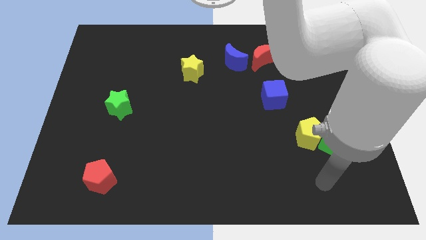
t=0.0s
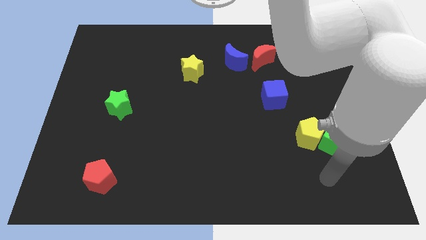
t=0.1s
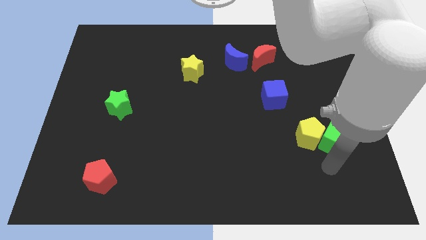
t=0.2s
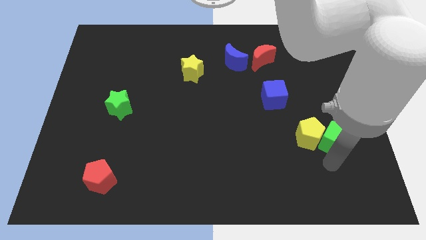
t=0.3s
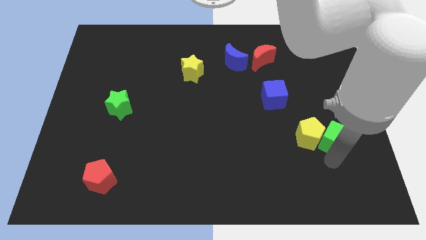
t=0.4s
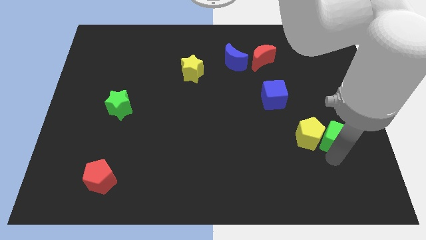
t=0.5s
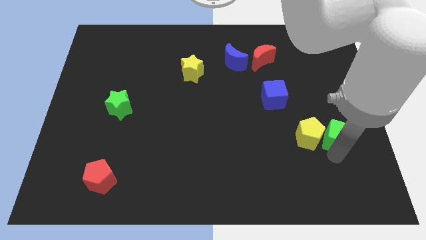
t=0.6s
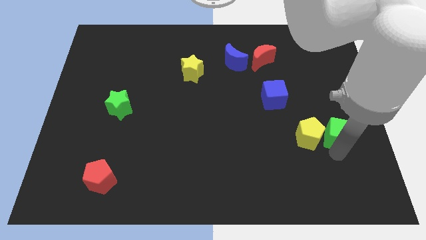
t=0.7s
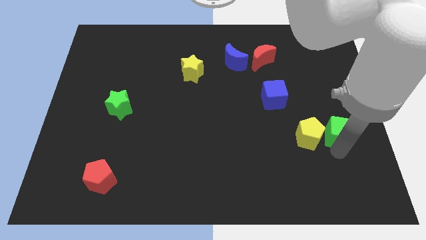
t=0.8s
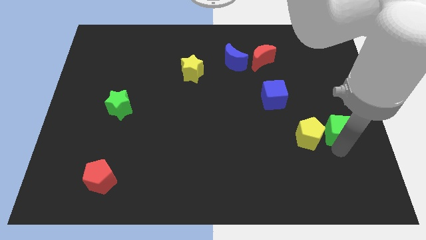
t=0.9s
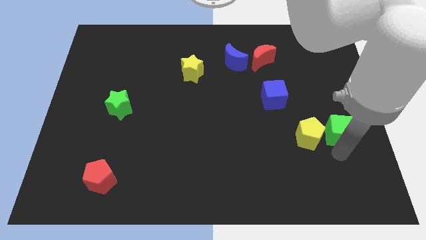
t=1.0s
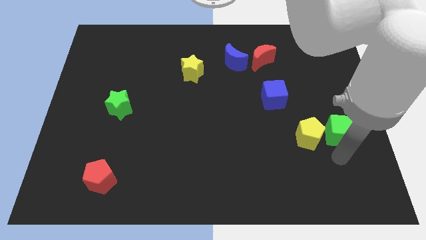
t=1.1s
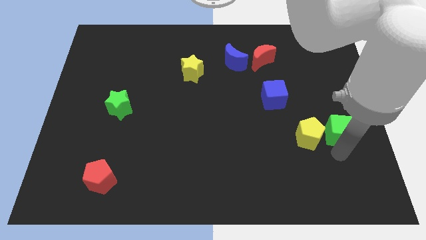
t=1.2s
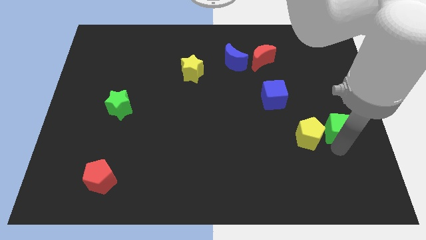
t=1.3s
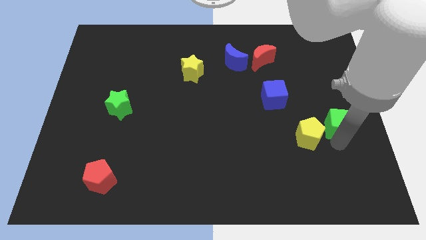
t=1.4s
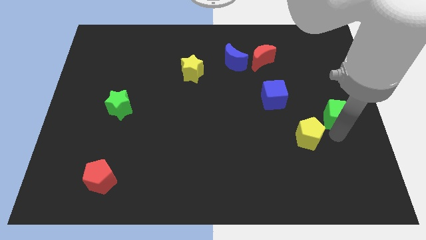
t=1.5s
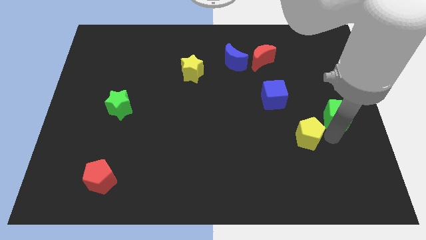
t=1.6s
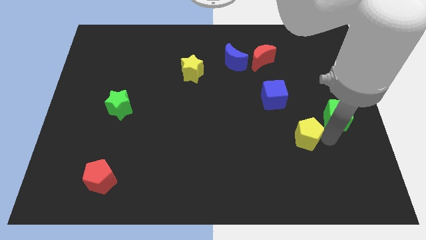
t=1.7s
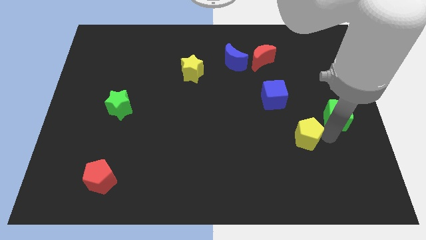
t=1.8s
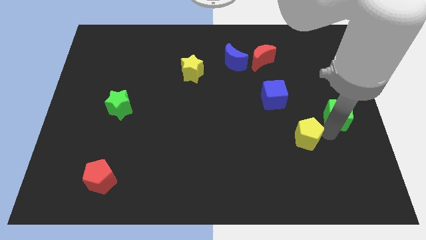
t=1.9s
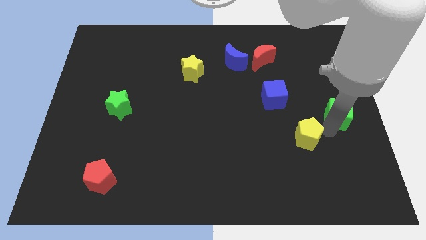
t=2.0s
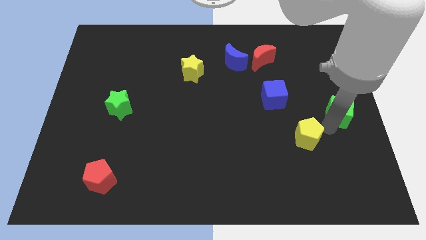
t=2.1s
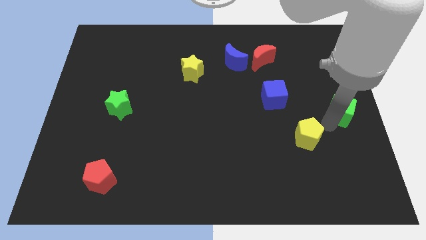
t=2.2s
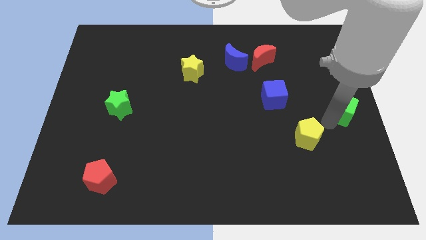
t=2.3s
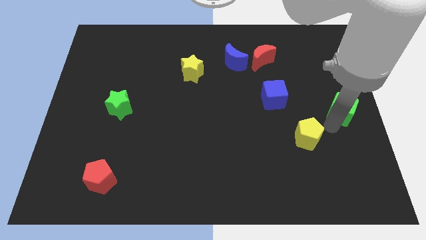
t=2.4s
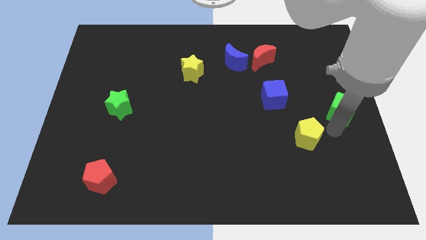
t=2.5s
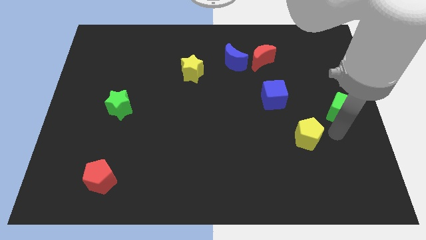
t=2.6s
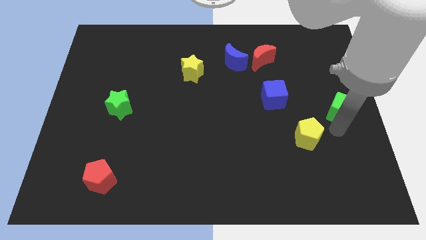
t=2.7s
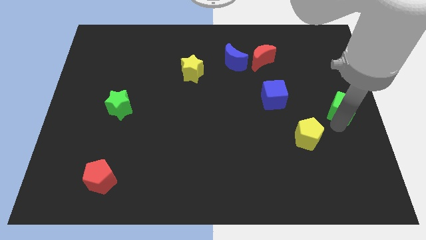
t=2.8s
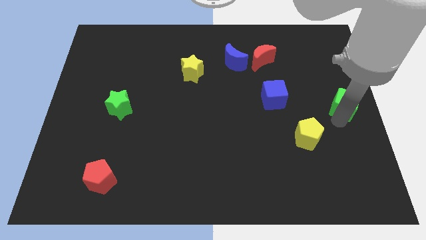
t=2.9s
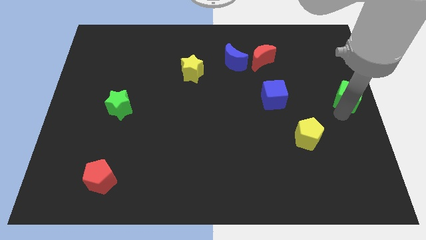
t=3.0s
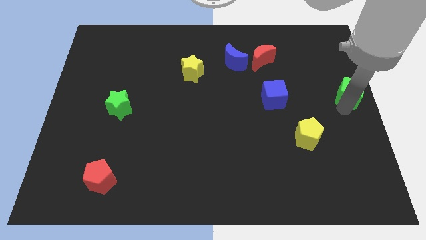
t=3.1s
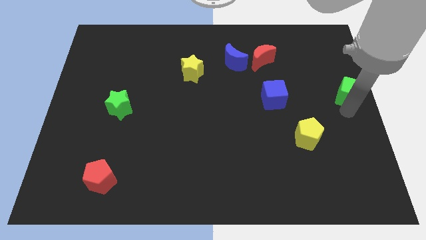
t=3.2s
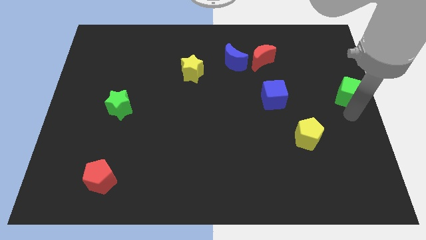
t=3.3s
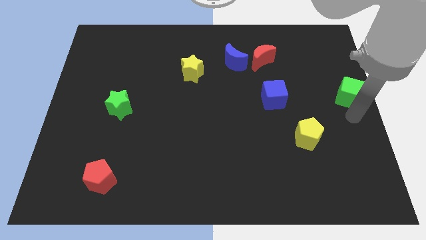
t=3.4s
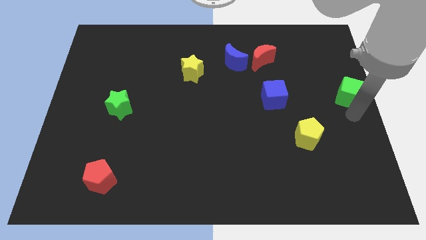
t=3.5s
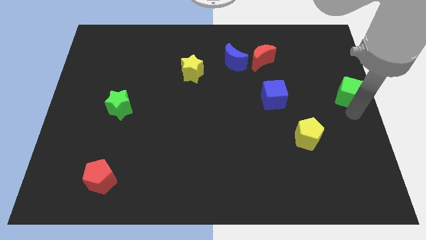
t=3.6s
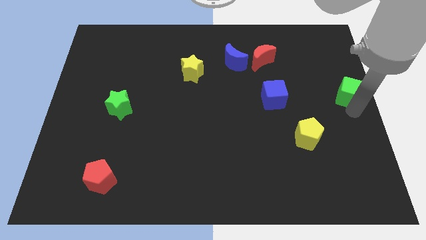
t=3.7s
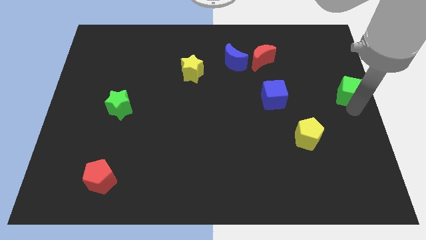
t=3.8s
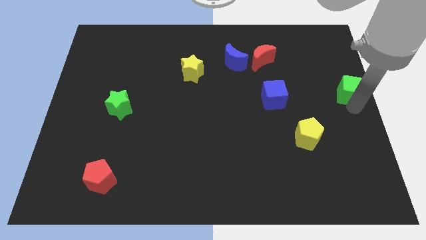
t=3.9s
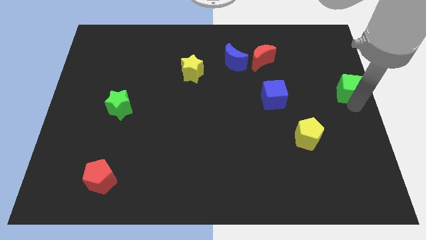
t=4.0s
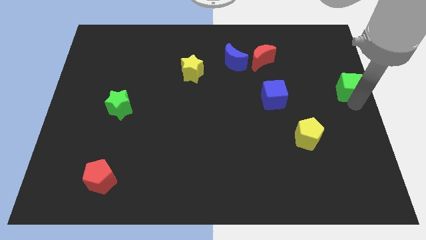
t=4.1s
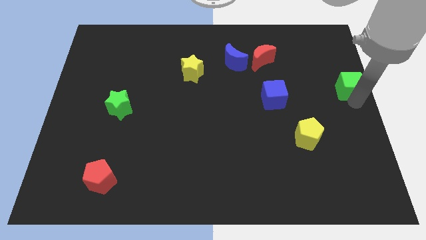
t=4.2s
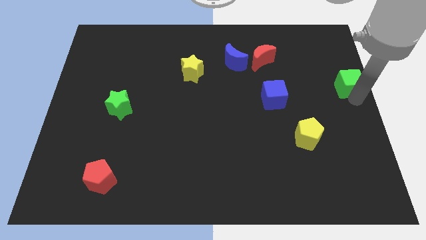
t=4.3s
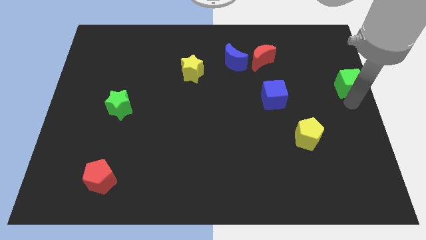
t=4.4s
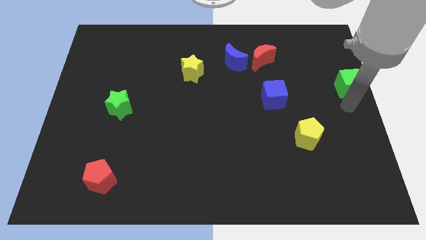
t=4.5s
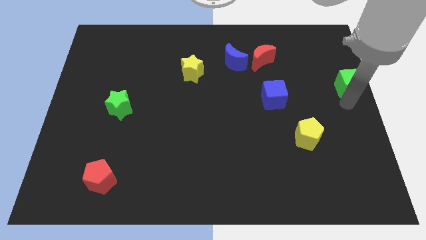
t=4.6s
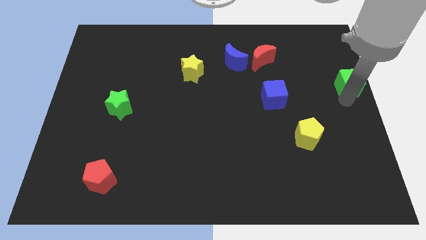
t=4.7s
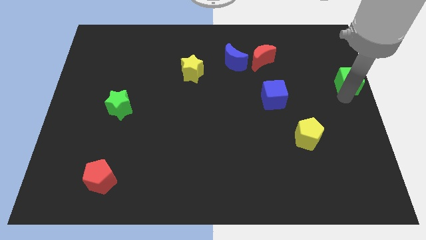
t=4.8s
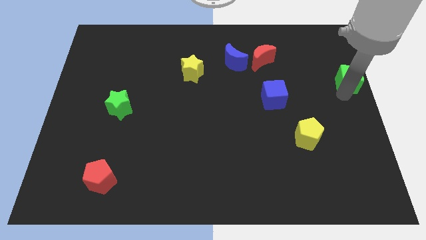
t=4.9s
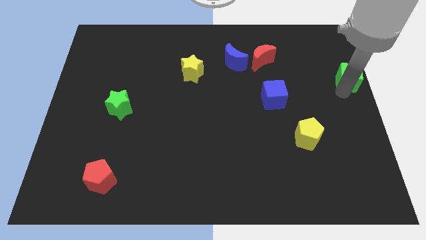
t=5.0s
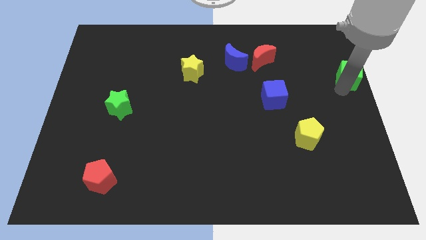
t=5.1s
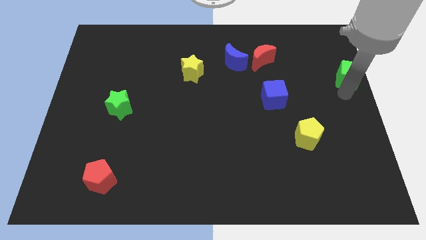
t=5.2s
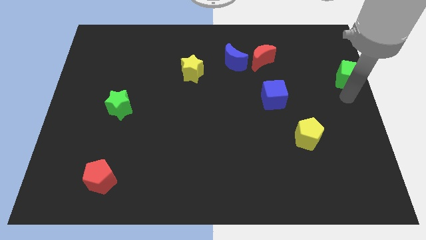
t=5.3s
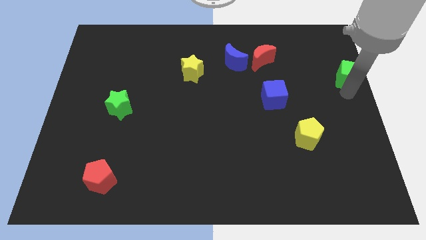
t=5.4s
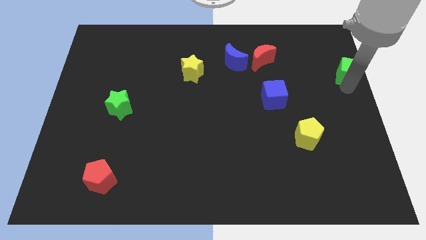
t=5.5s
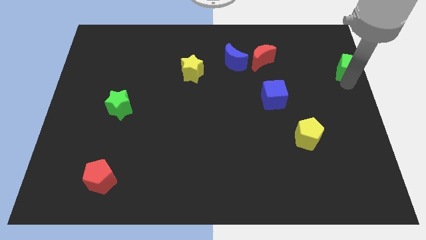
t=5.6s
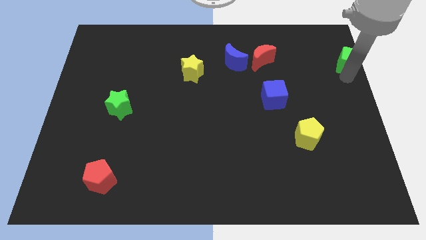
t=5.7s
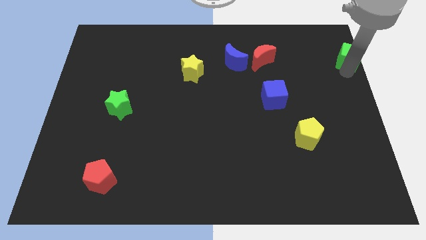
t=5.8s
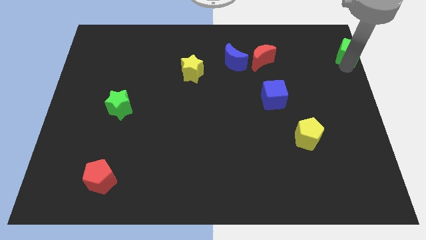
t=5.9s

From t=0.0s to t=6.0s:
slide the green cube to the top right of the board

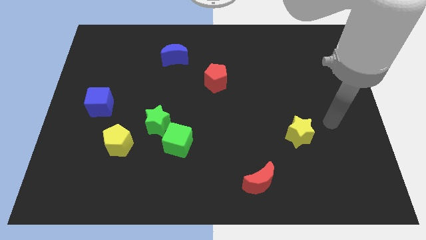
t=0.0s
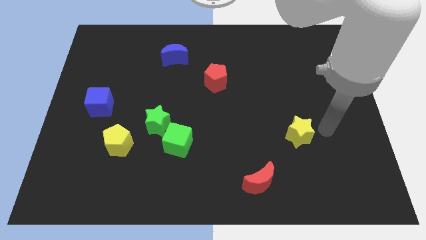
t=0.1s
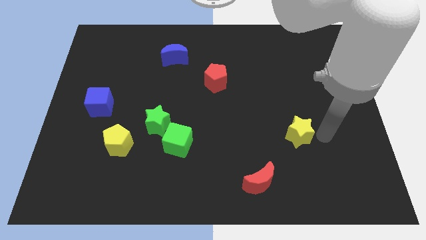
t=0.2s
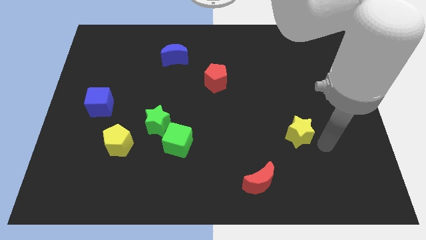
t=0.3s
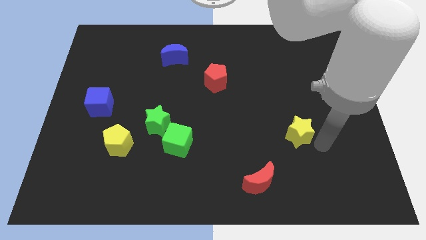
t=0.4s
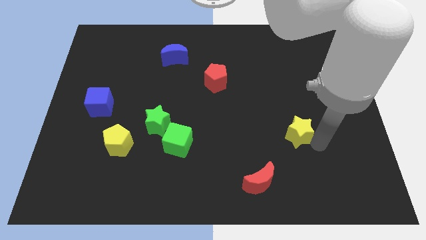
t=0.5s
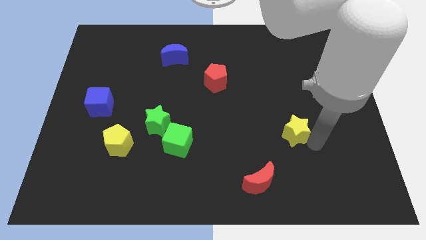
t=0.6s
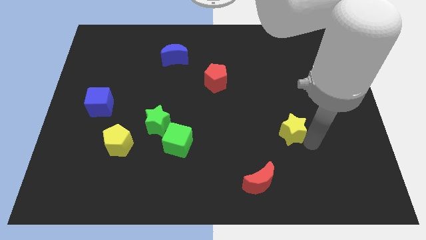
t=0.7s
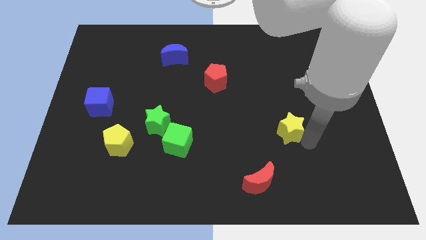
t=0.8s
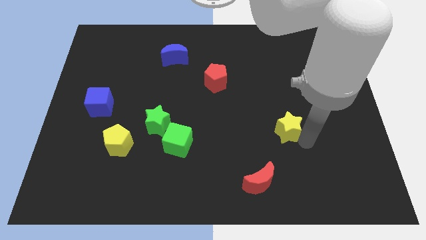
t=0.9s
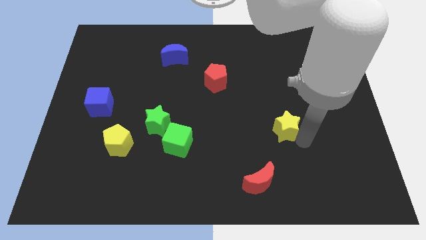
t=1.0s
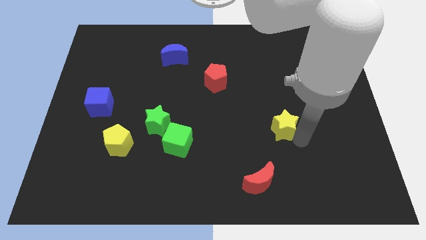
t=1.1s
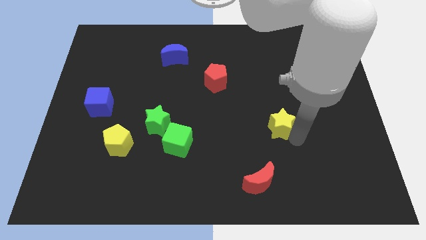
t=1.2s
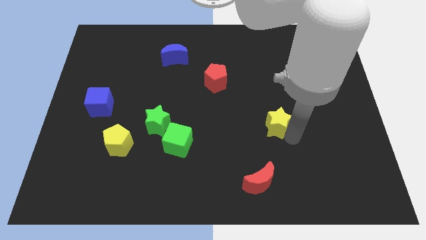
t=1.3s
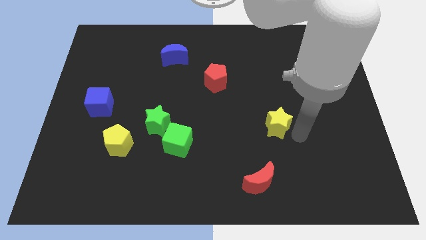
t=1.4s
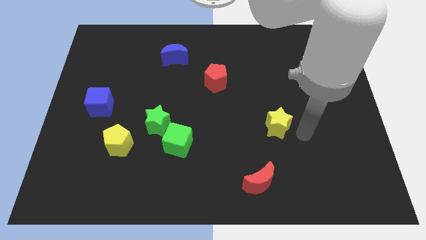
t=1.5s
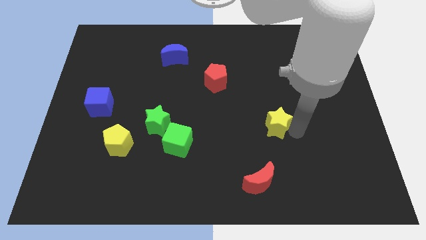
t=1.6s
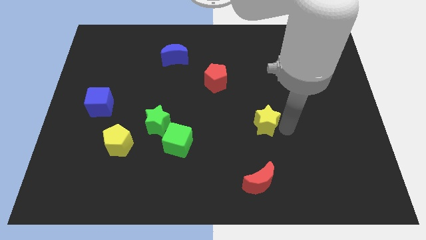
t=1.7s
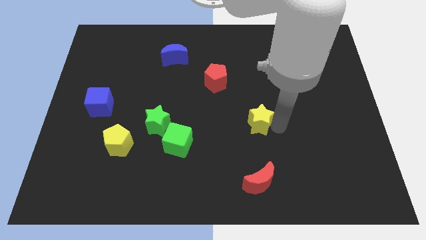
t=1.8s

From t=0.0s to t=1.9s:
slide the yellow star to the middle
